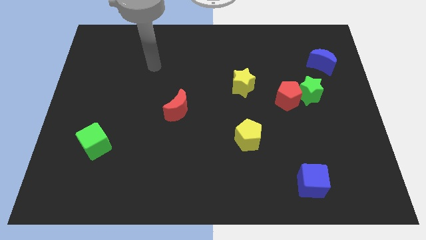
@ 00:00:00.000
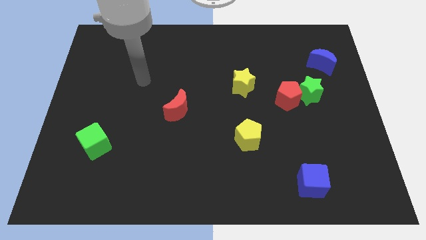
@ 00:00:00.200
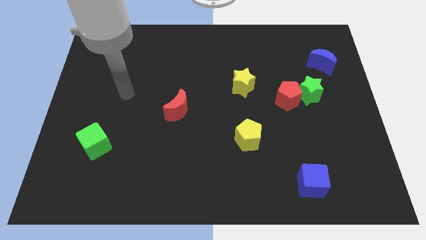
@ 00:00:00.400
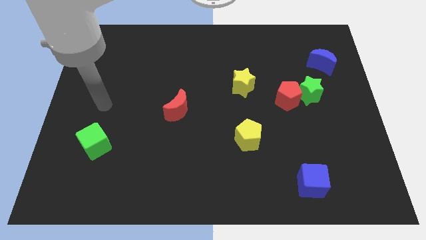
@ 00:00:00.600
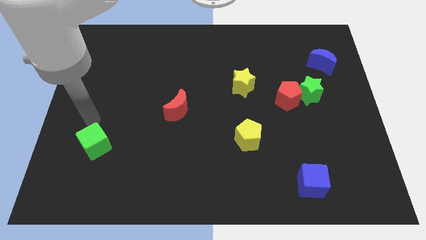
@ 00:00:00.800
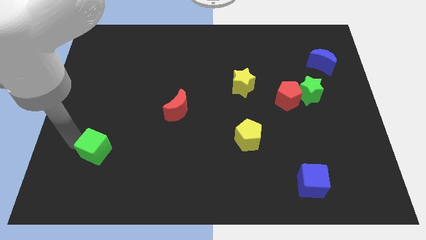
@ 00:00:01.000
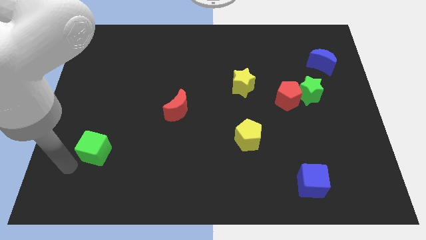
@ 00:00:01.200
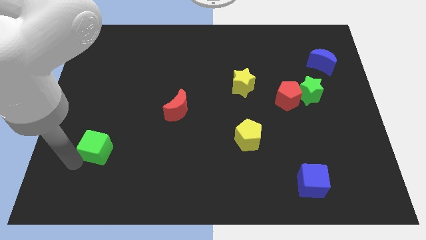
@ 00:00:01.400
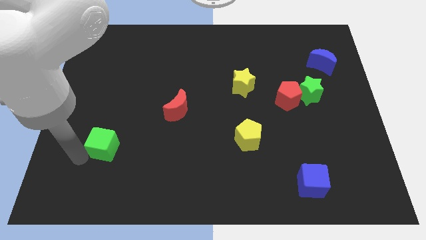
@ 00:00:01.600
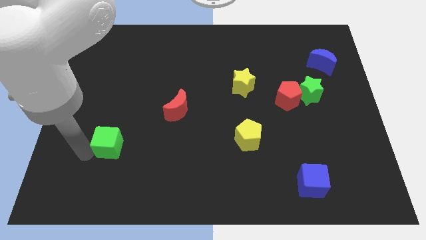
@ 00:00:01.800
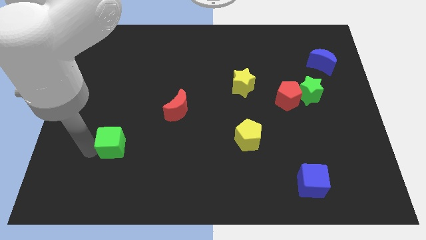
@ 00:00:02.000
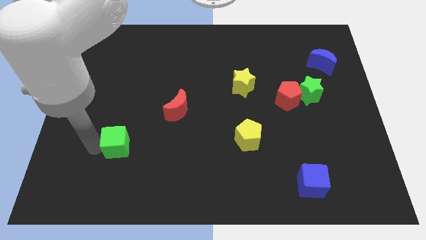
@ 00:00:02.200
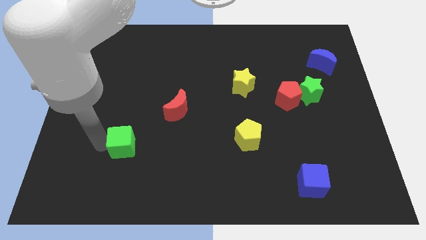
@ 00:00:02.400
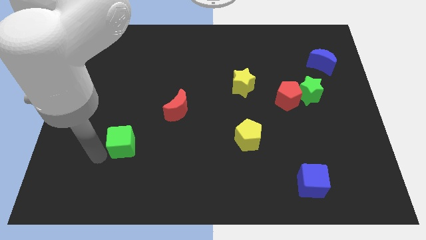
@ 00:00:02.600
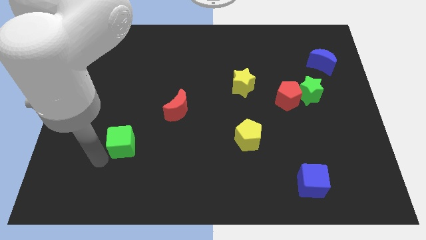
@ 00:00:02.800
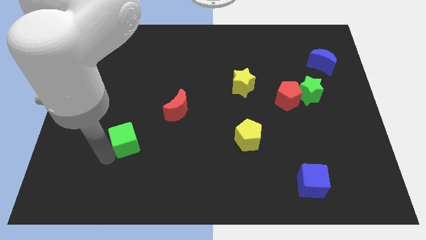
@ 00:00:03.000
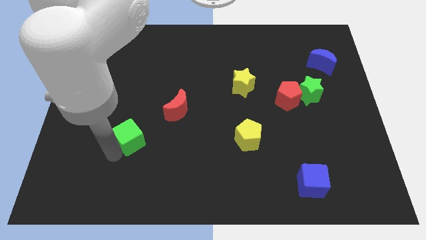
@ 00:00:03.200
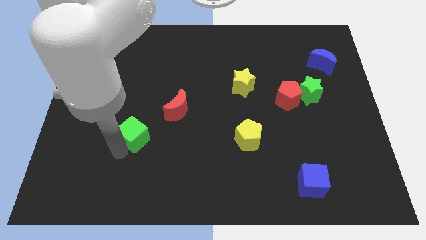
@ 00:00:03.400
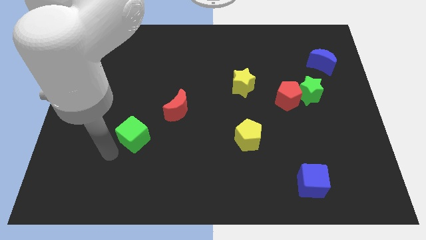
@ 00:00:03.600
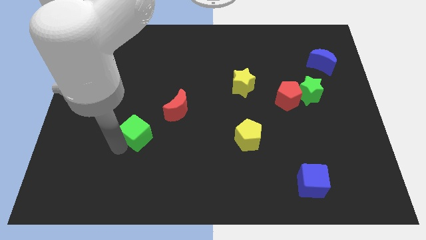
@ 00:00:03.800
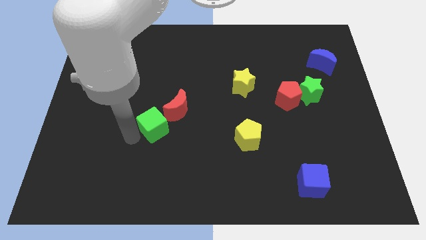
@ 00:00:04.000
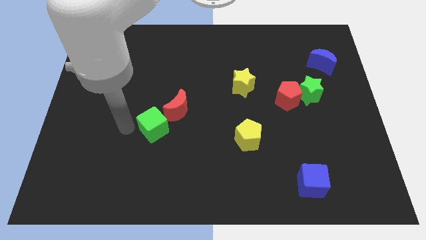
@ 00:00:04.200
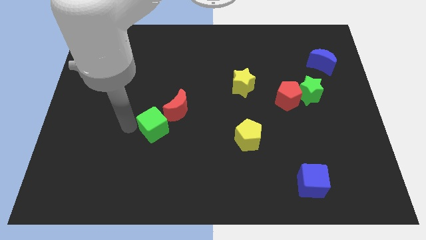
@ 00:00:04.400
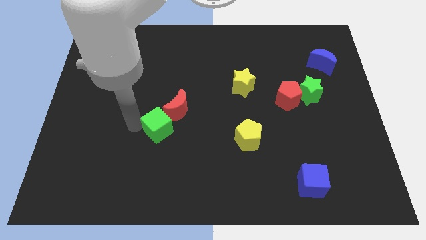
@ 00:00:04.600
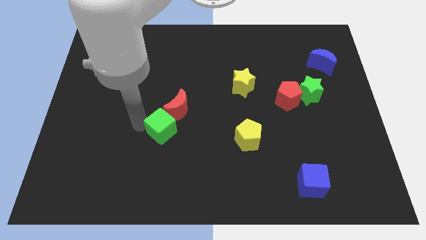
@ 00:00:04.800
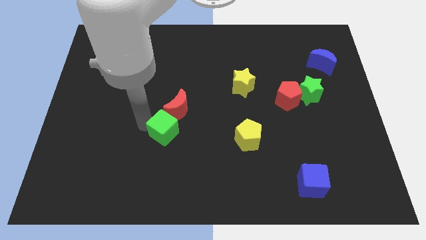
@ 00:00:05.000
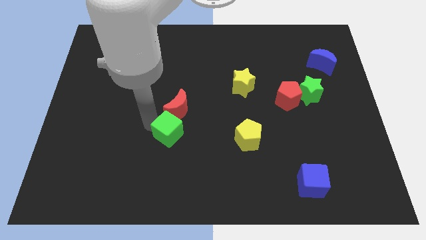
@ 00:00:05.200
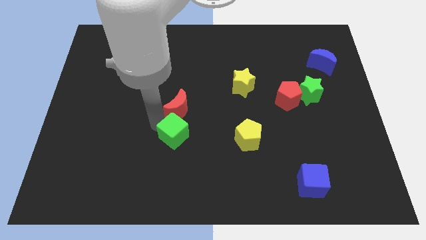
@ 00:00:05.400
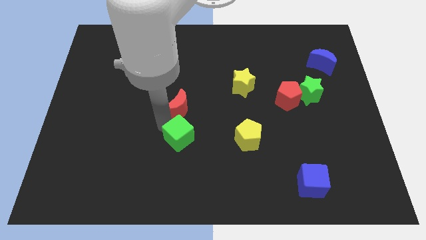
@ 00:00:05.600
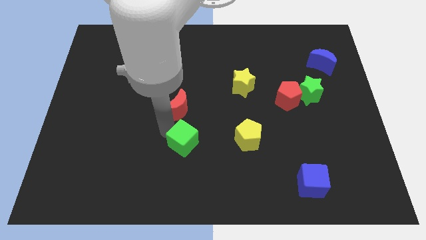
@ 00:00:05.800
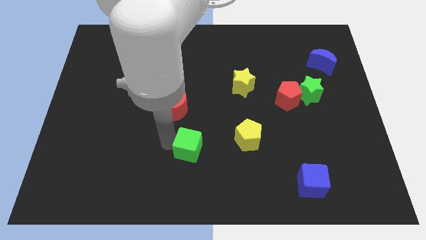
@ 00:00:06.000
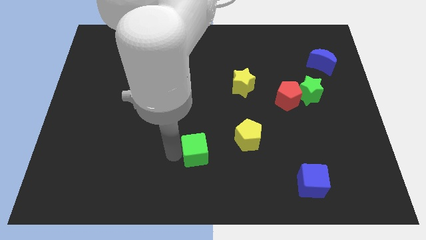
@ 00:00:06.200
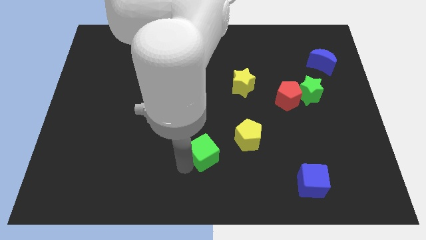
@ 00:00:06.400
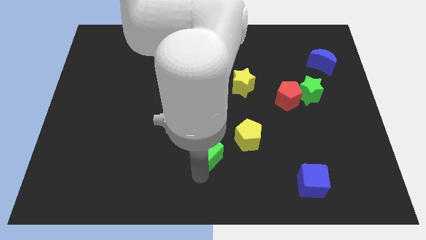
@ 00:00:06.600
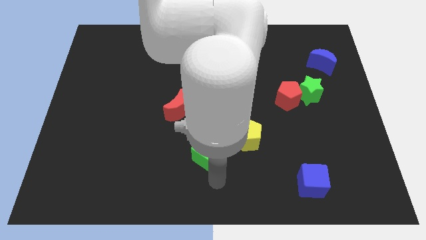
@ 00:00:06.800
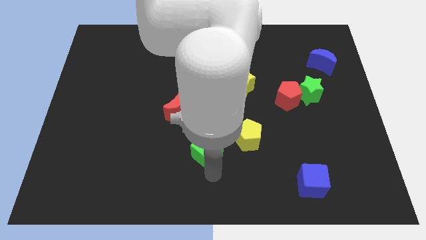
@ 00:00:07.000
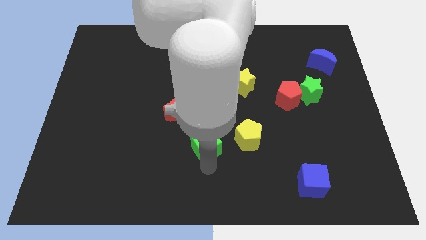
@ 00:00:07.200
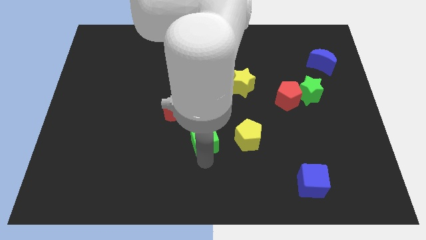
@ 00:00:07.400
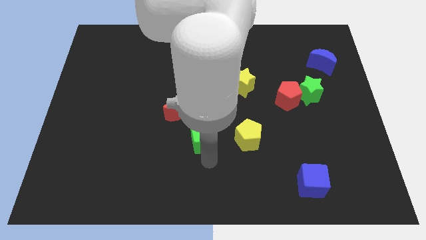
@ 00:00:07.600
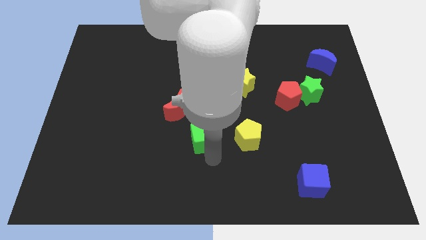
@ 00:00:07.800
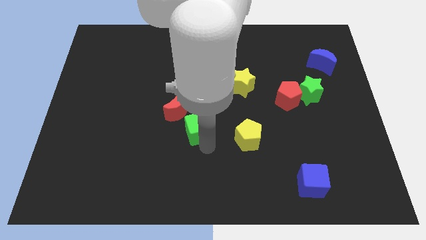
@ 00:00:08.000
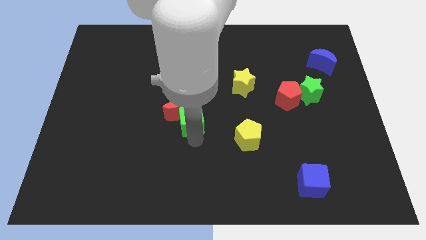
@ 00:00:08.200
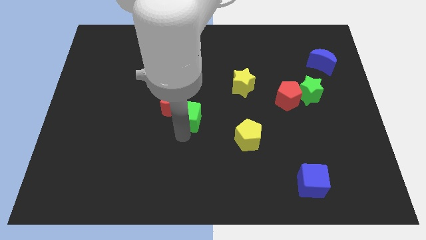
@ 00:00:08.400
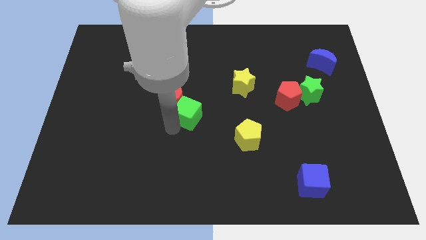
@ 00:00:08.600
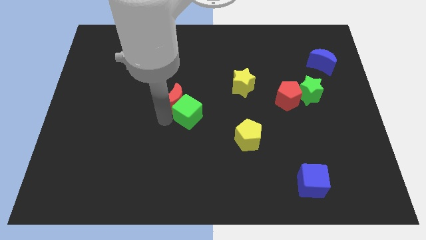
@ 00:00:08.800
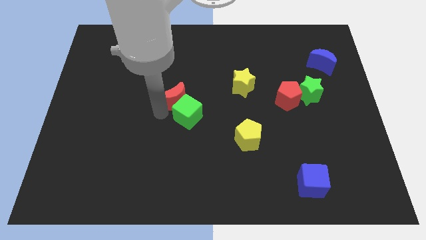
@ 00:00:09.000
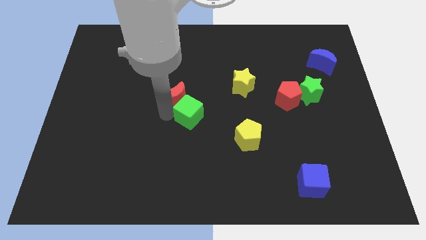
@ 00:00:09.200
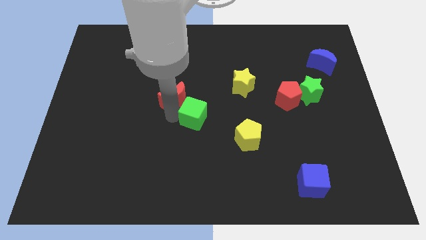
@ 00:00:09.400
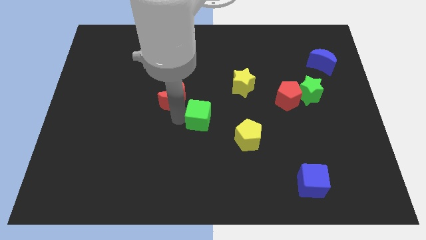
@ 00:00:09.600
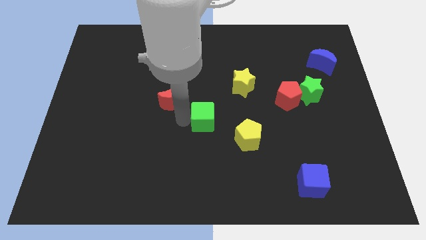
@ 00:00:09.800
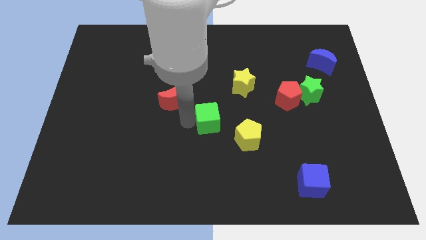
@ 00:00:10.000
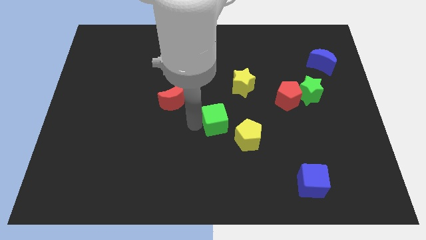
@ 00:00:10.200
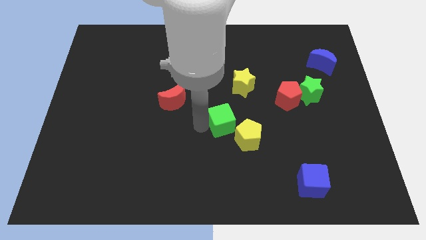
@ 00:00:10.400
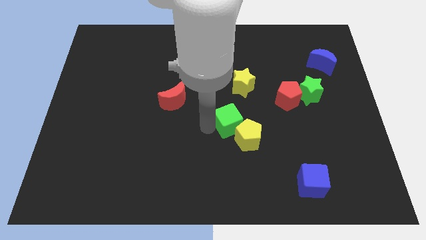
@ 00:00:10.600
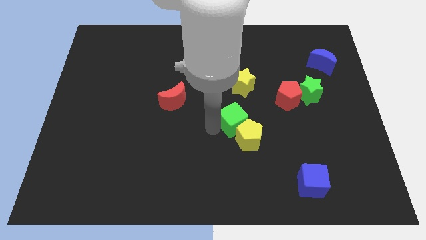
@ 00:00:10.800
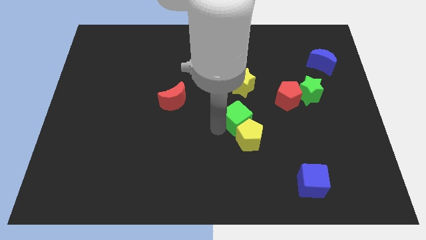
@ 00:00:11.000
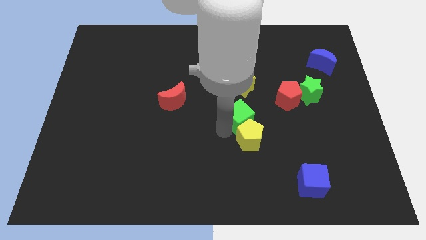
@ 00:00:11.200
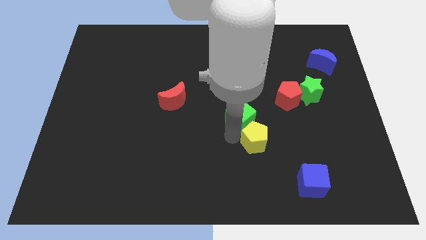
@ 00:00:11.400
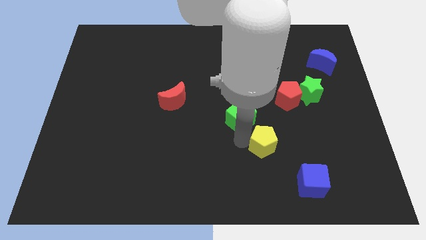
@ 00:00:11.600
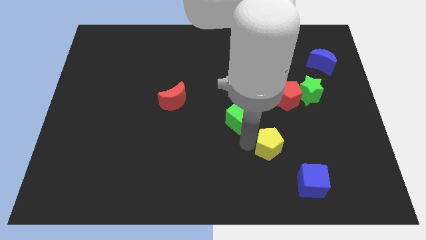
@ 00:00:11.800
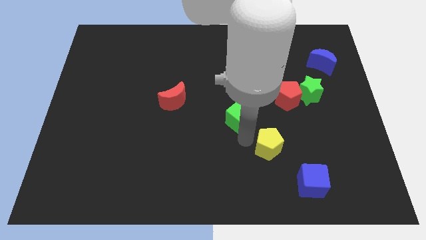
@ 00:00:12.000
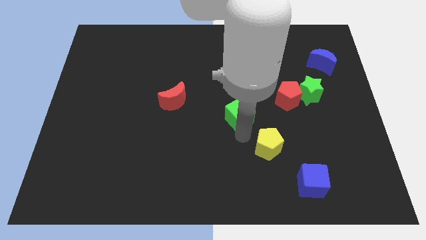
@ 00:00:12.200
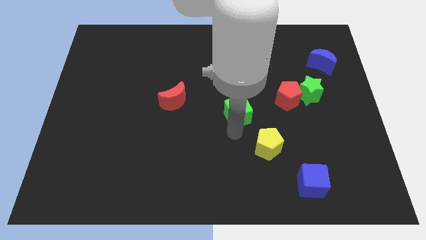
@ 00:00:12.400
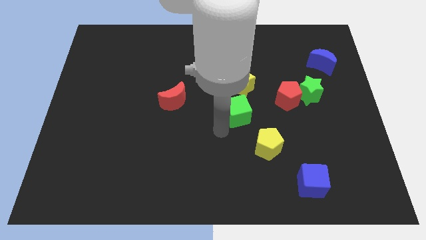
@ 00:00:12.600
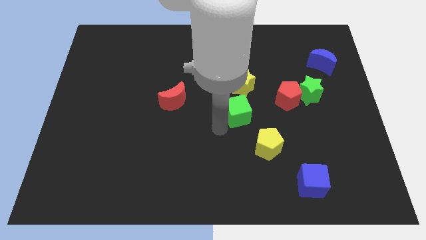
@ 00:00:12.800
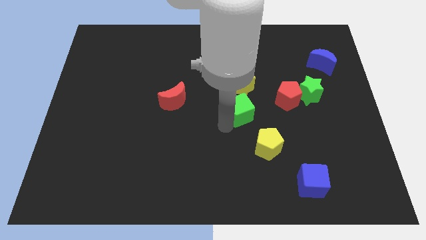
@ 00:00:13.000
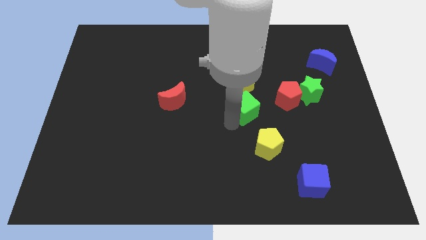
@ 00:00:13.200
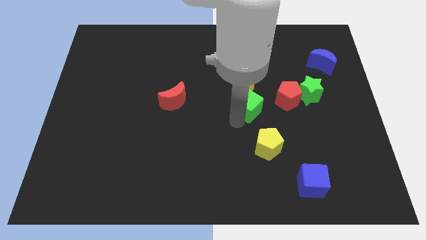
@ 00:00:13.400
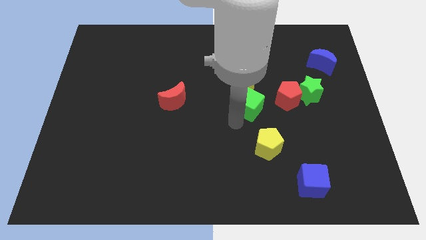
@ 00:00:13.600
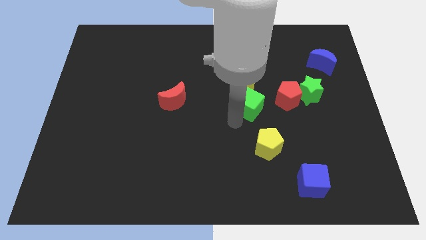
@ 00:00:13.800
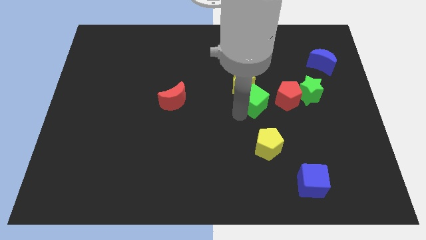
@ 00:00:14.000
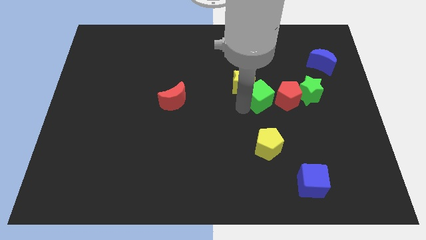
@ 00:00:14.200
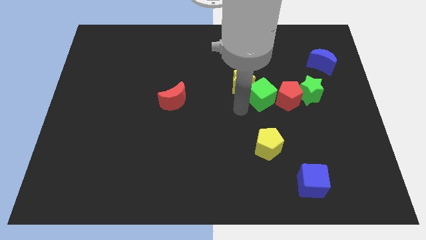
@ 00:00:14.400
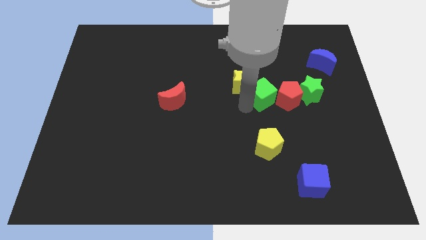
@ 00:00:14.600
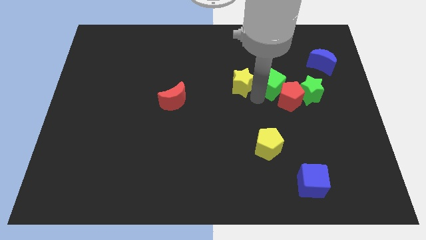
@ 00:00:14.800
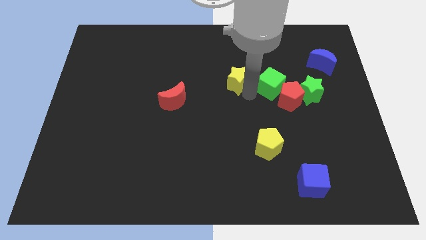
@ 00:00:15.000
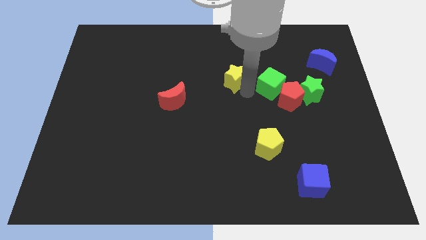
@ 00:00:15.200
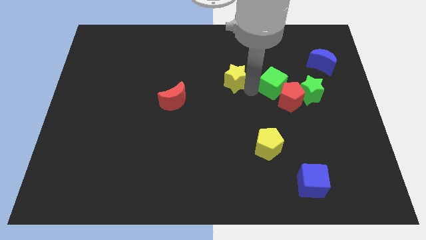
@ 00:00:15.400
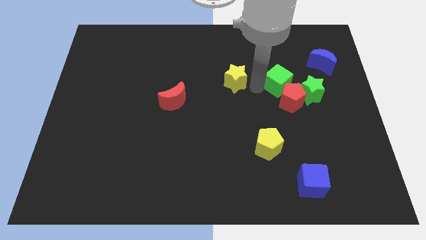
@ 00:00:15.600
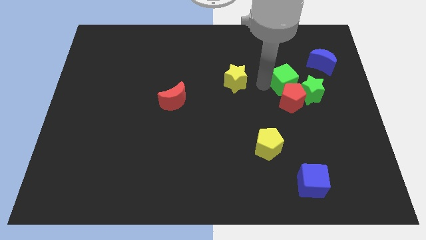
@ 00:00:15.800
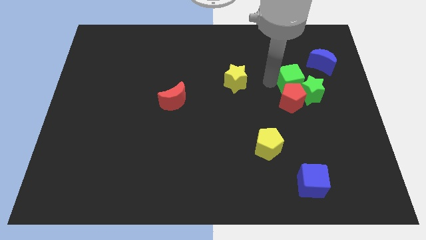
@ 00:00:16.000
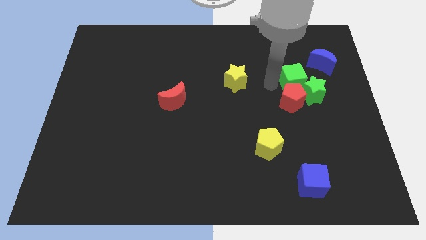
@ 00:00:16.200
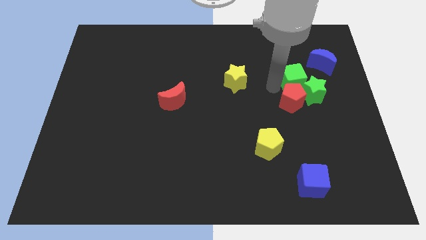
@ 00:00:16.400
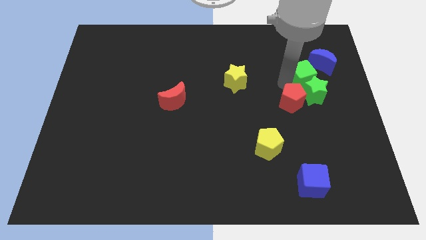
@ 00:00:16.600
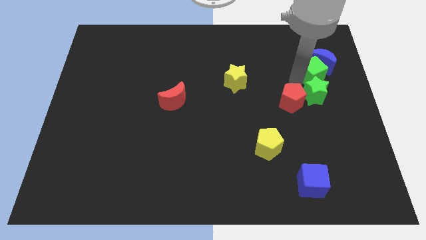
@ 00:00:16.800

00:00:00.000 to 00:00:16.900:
push the green cube close to the blue moon
